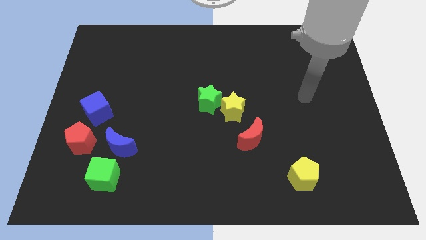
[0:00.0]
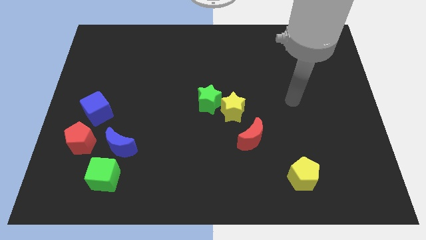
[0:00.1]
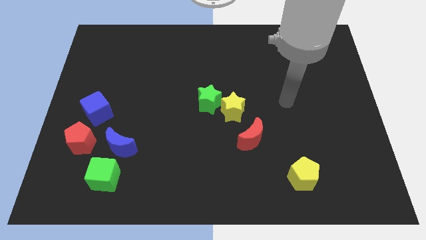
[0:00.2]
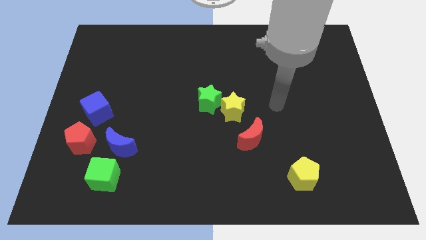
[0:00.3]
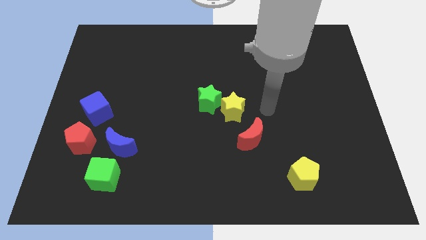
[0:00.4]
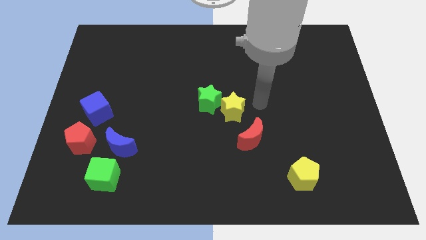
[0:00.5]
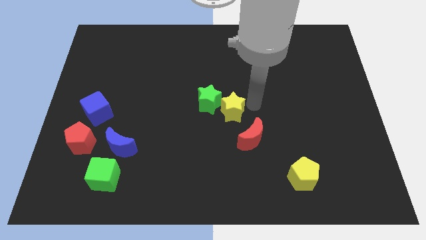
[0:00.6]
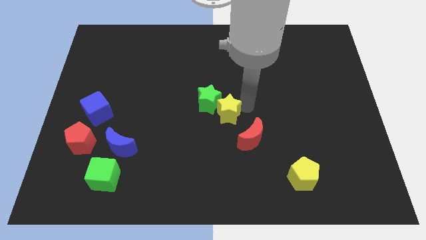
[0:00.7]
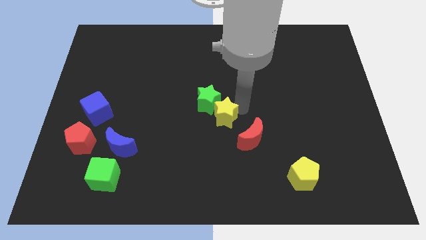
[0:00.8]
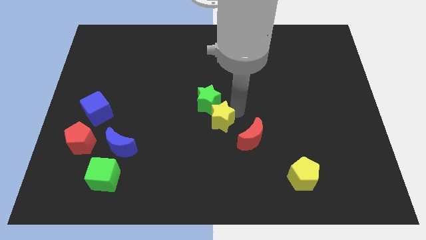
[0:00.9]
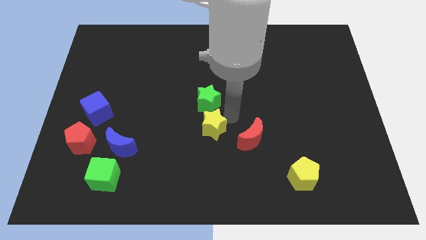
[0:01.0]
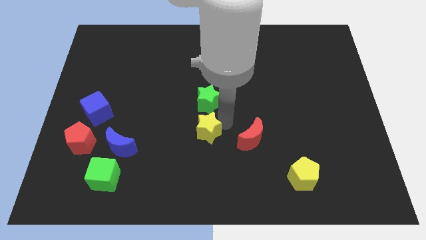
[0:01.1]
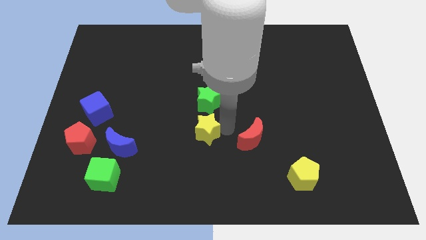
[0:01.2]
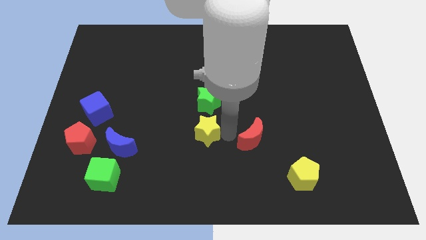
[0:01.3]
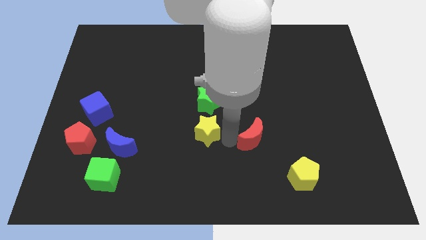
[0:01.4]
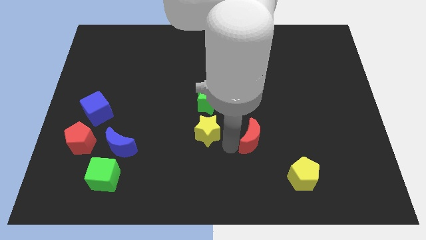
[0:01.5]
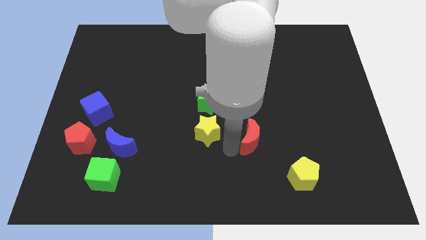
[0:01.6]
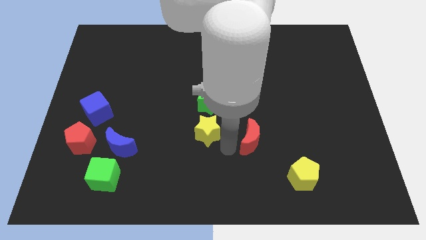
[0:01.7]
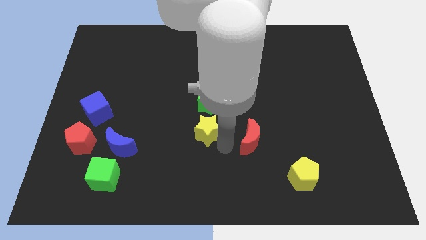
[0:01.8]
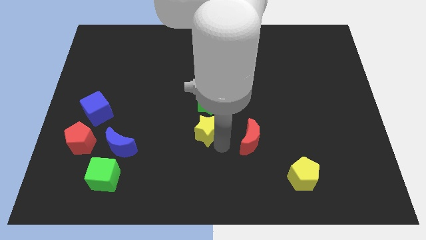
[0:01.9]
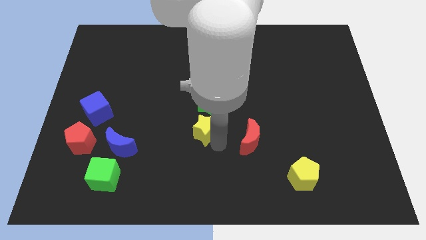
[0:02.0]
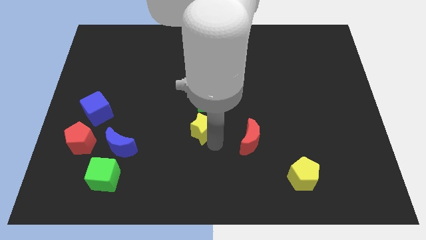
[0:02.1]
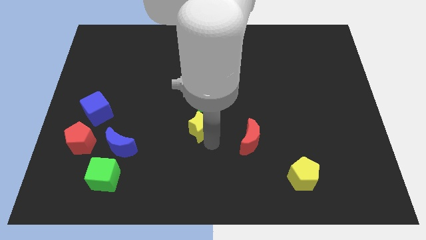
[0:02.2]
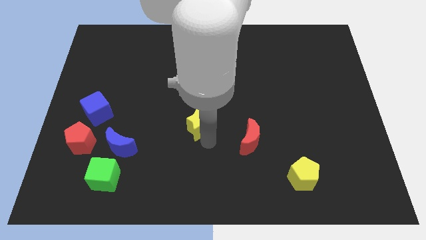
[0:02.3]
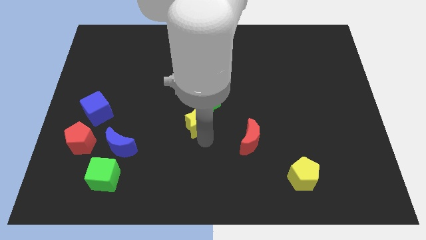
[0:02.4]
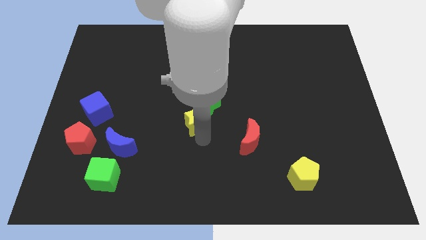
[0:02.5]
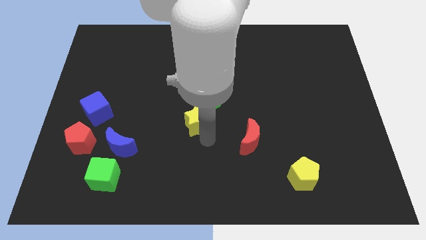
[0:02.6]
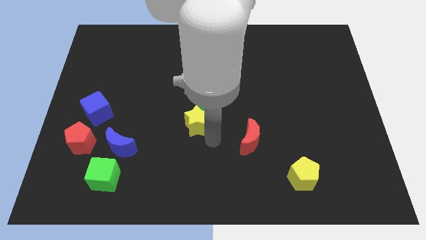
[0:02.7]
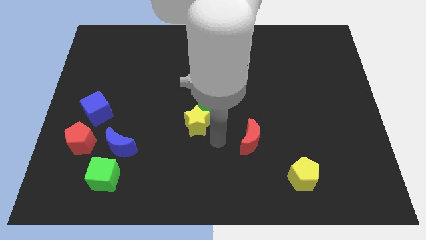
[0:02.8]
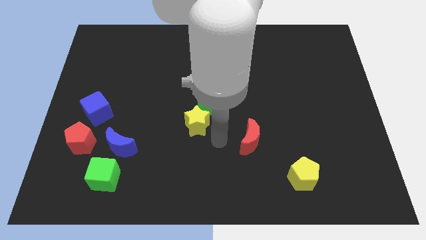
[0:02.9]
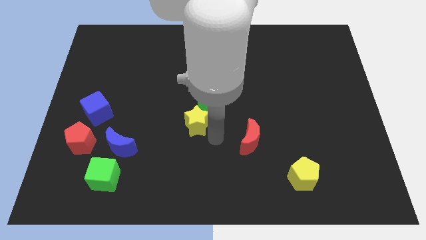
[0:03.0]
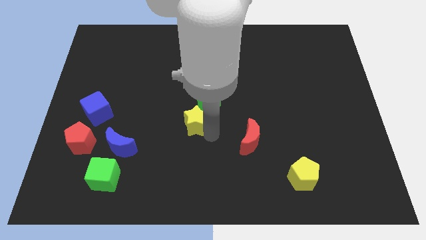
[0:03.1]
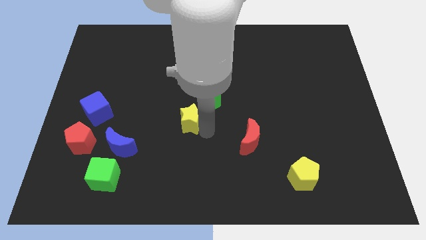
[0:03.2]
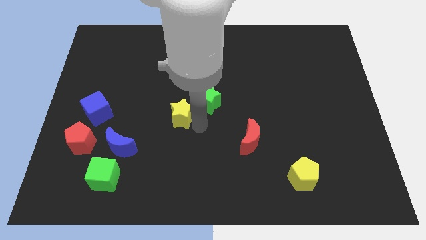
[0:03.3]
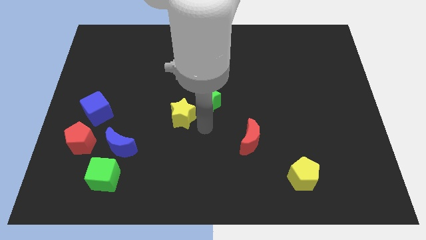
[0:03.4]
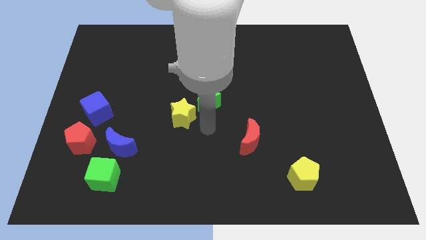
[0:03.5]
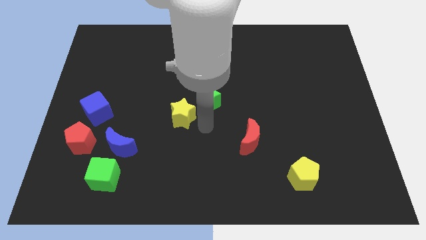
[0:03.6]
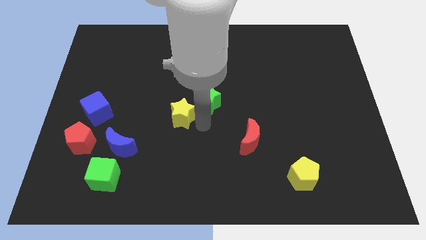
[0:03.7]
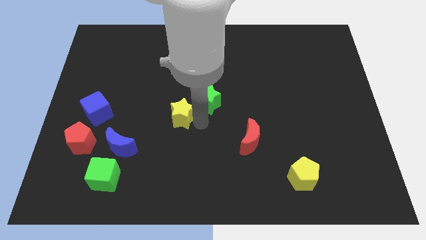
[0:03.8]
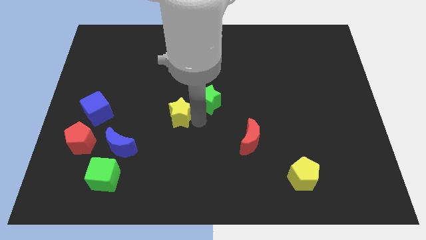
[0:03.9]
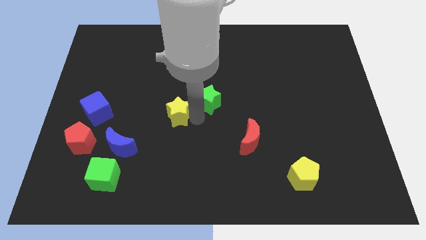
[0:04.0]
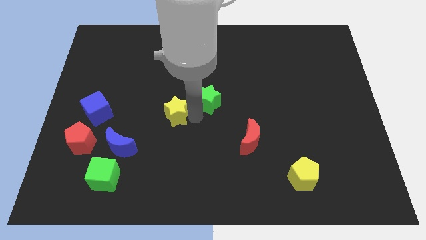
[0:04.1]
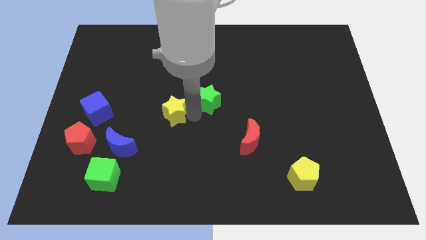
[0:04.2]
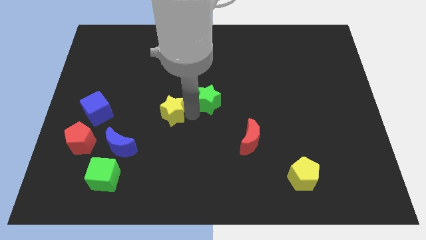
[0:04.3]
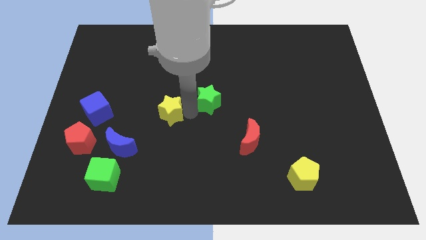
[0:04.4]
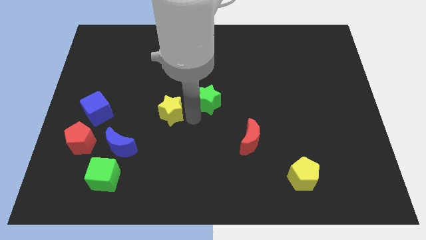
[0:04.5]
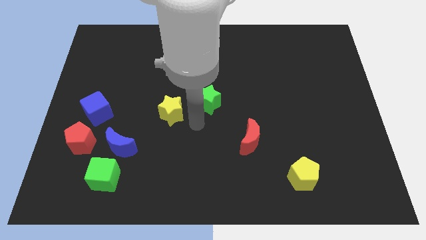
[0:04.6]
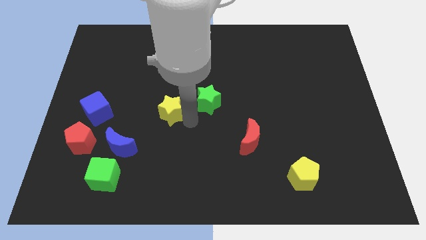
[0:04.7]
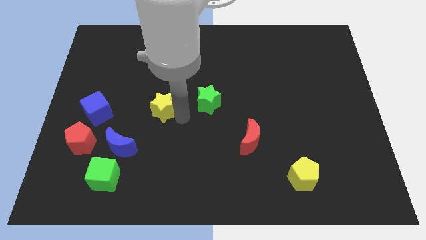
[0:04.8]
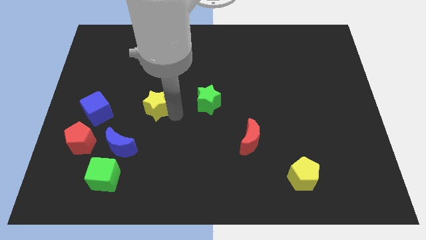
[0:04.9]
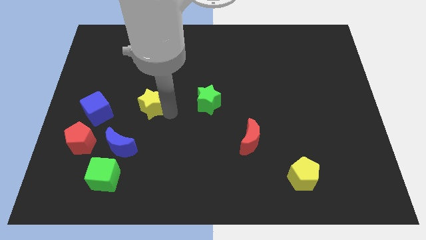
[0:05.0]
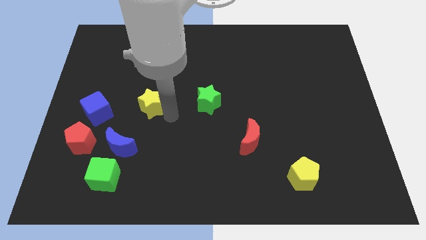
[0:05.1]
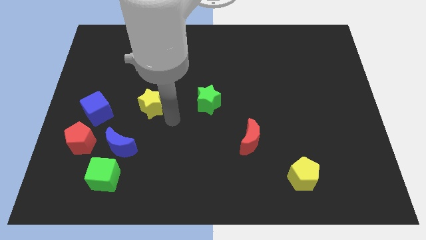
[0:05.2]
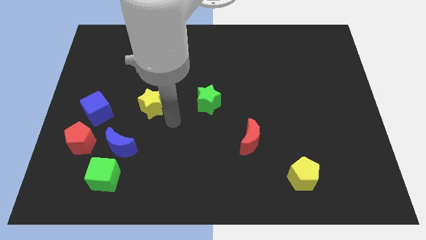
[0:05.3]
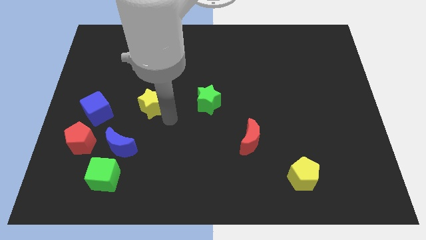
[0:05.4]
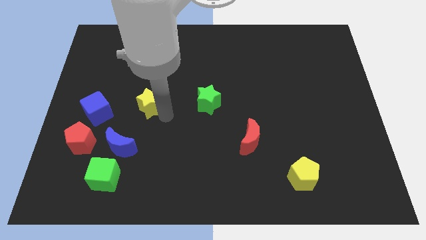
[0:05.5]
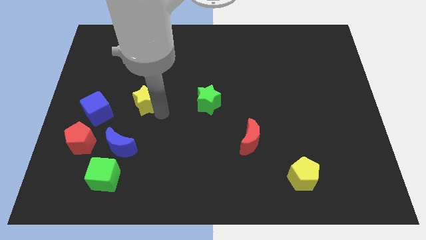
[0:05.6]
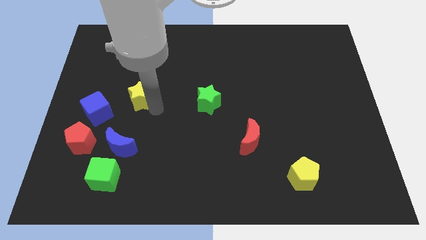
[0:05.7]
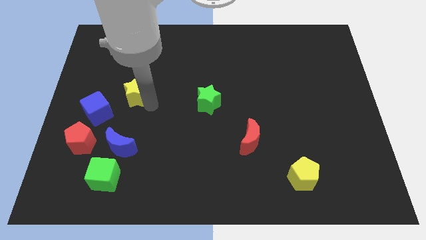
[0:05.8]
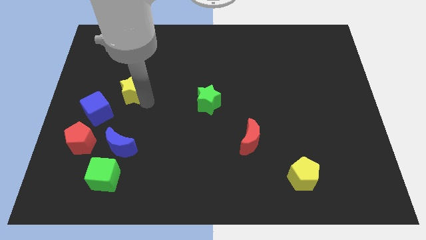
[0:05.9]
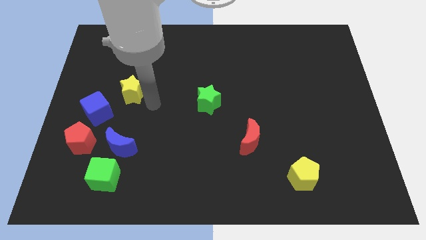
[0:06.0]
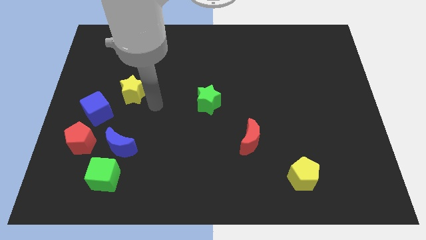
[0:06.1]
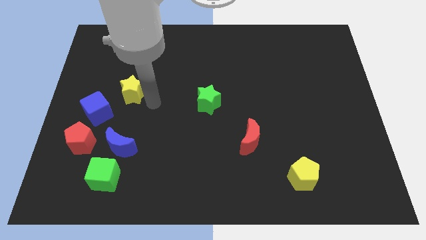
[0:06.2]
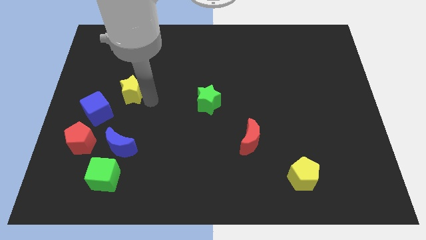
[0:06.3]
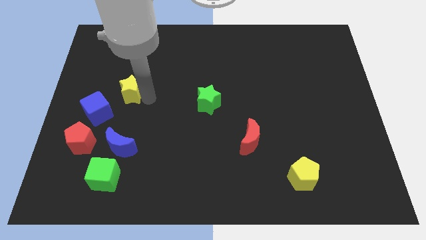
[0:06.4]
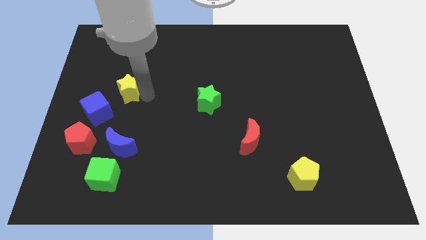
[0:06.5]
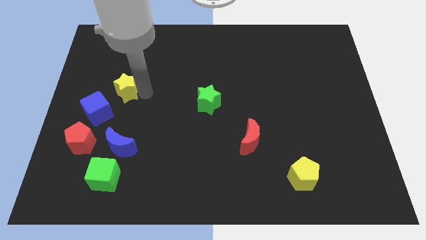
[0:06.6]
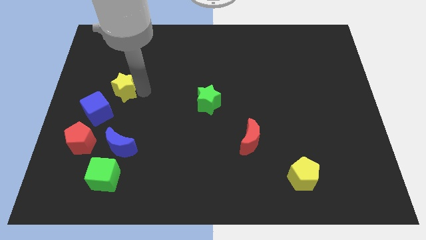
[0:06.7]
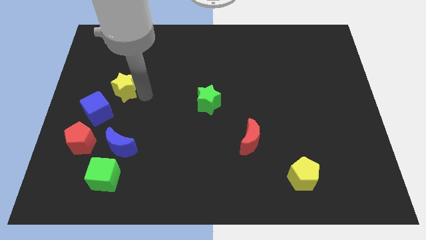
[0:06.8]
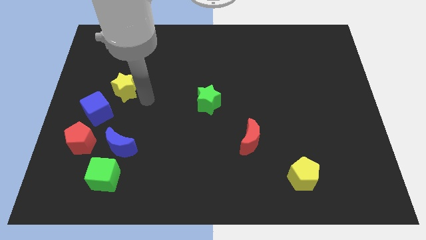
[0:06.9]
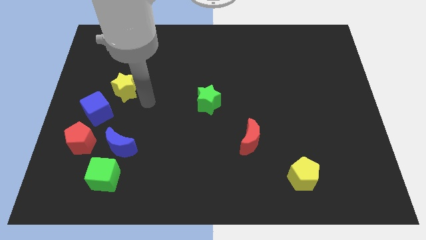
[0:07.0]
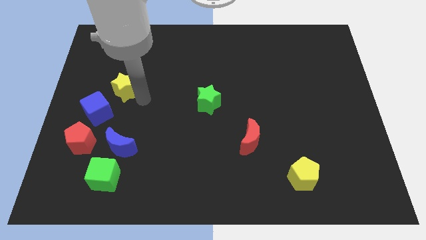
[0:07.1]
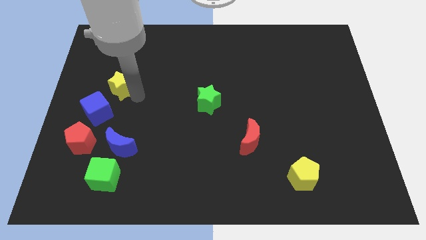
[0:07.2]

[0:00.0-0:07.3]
slide the yellow star above the blue cube

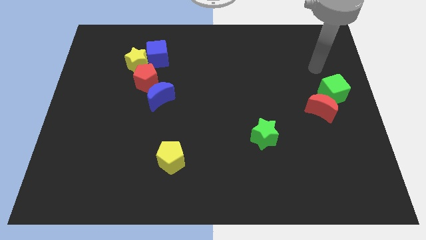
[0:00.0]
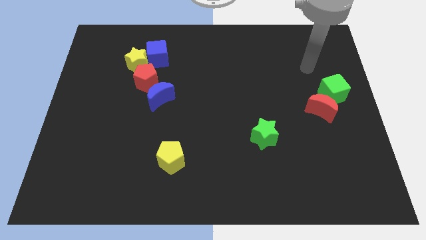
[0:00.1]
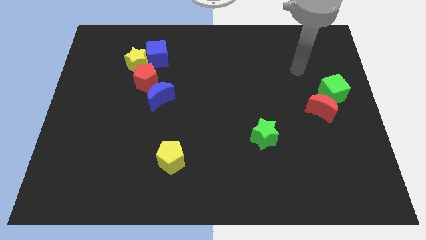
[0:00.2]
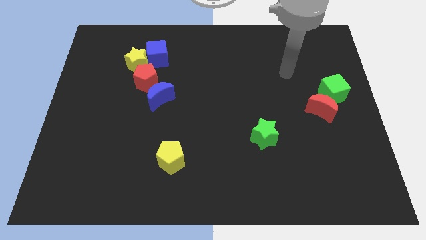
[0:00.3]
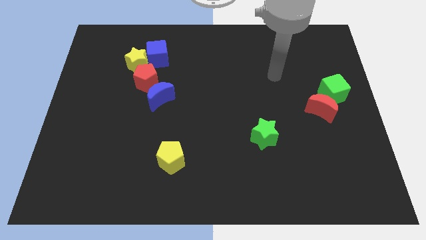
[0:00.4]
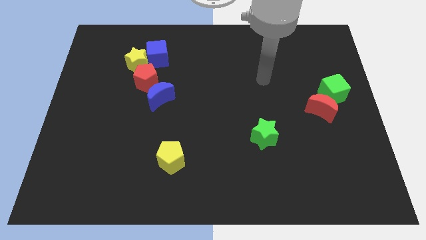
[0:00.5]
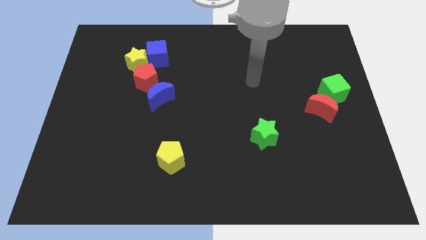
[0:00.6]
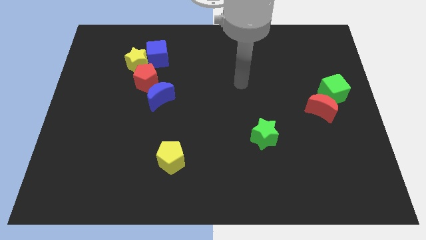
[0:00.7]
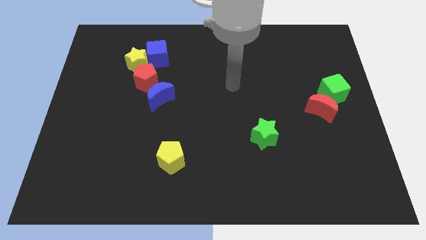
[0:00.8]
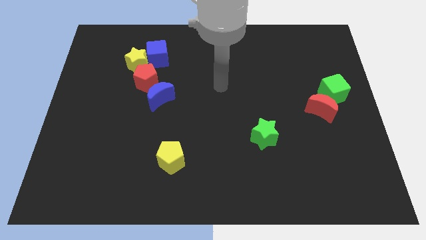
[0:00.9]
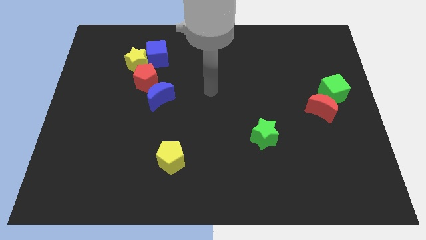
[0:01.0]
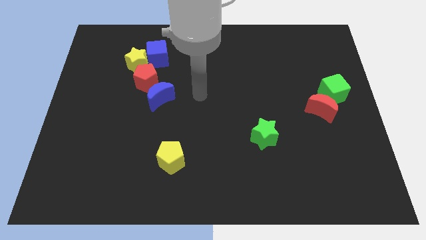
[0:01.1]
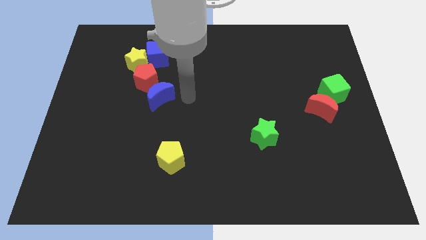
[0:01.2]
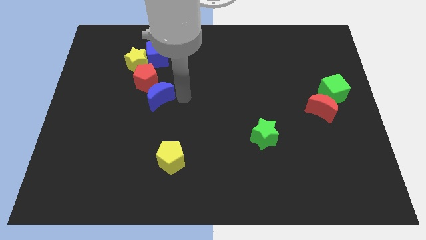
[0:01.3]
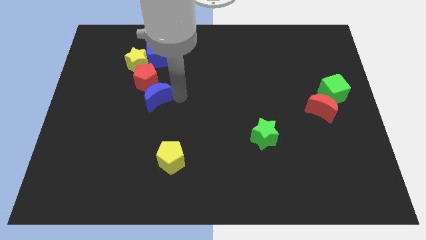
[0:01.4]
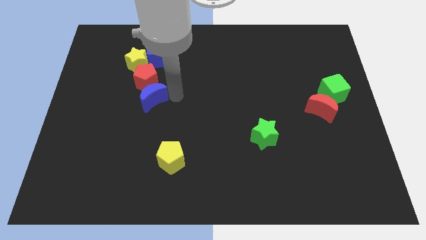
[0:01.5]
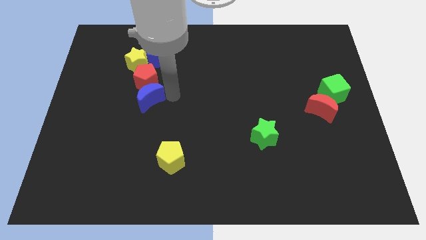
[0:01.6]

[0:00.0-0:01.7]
push the blue moon diagonally down and to the left of the red pentagon
